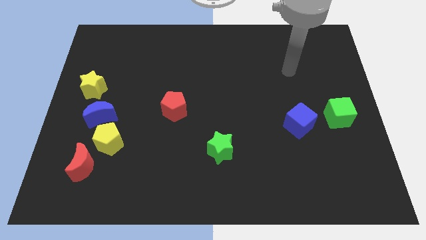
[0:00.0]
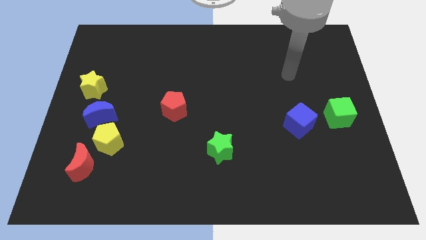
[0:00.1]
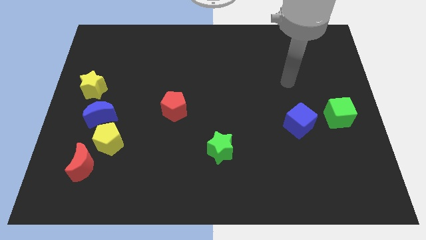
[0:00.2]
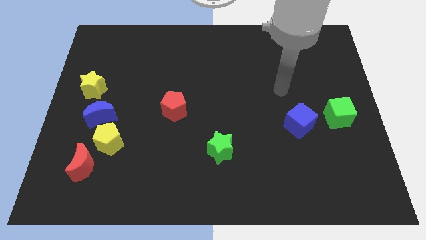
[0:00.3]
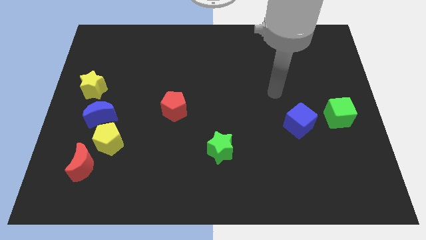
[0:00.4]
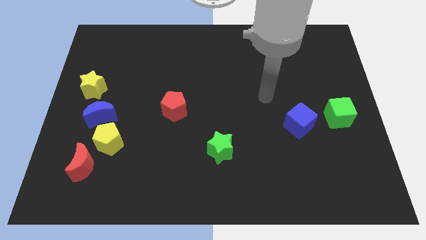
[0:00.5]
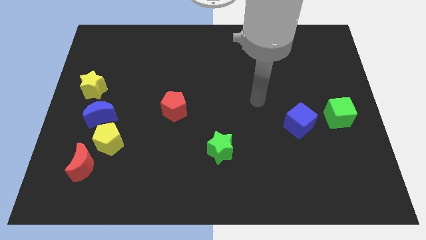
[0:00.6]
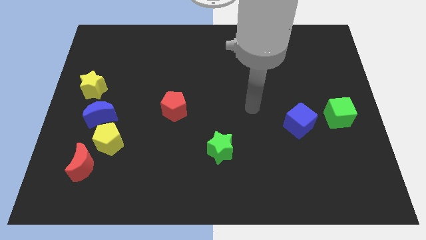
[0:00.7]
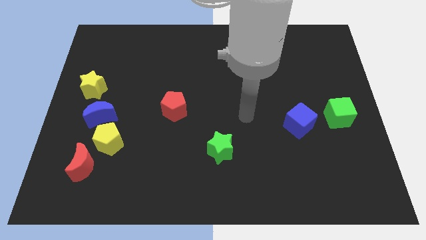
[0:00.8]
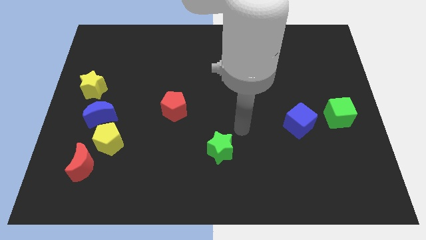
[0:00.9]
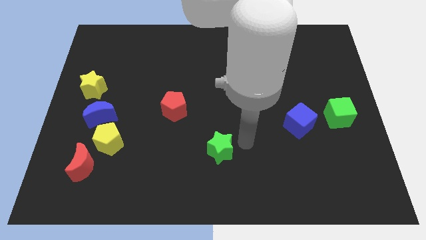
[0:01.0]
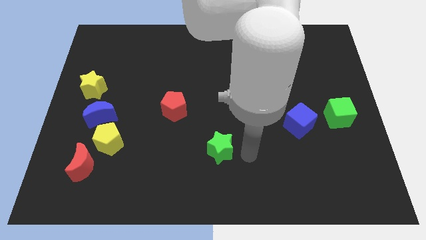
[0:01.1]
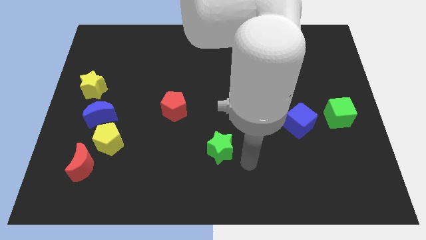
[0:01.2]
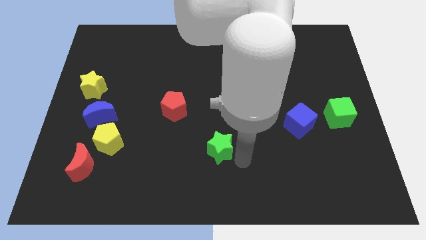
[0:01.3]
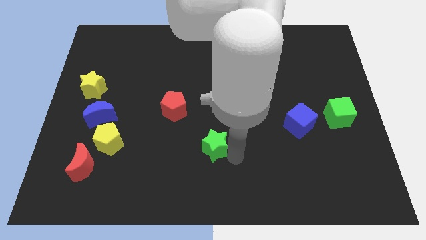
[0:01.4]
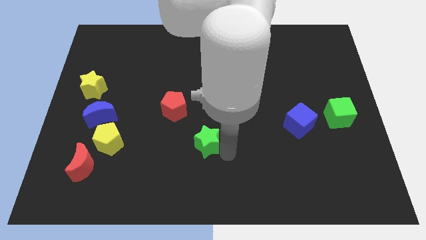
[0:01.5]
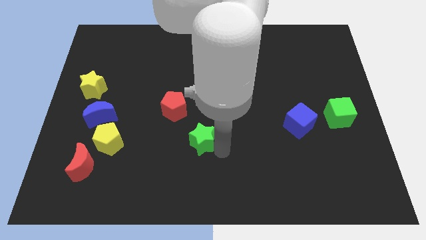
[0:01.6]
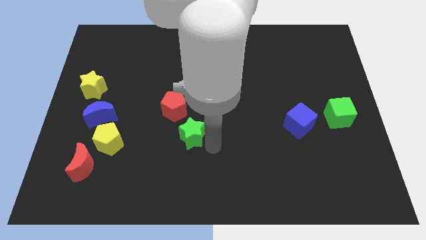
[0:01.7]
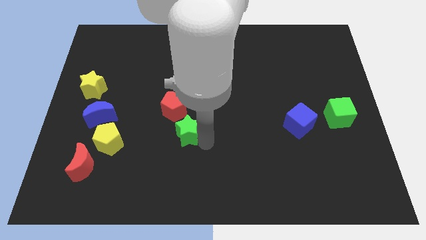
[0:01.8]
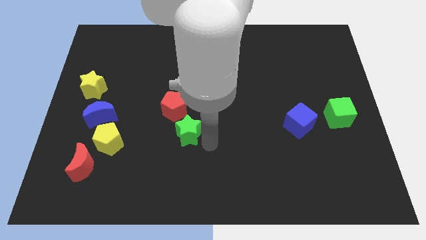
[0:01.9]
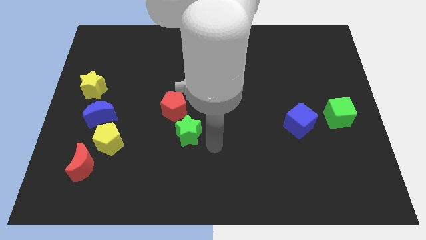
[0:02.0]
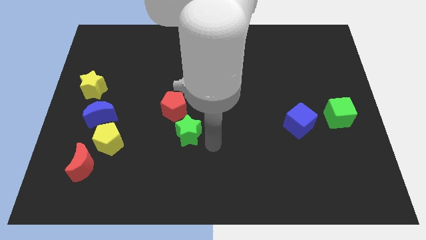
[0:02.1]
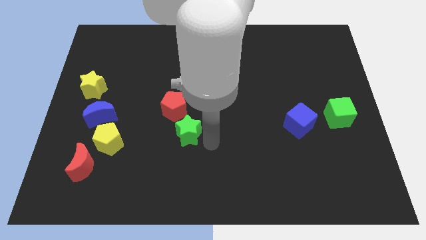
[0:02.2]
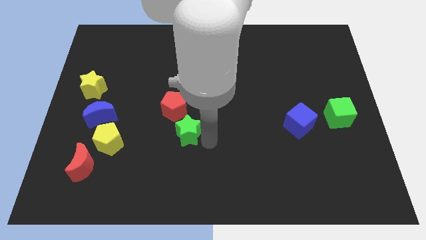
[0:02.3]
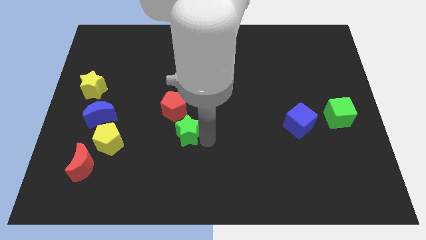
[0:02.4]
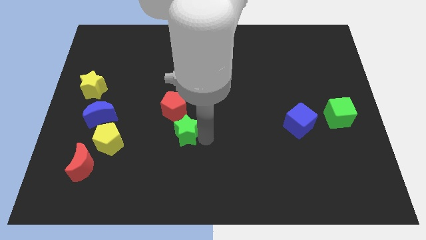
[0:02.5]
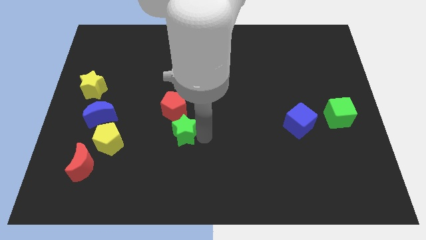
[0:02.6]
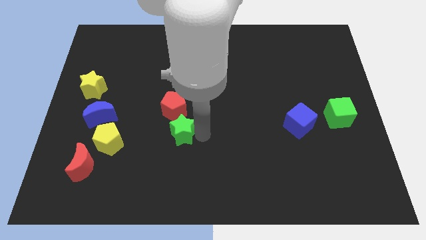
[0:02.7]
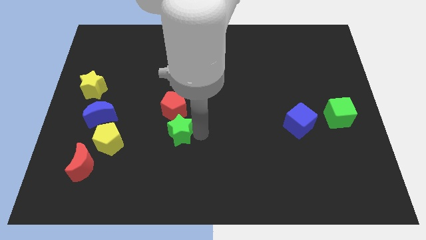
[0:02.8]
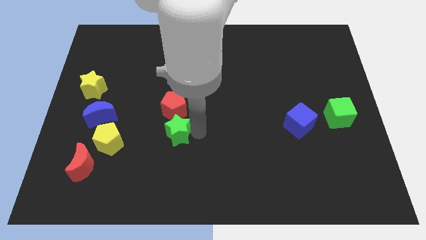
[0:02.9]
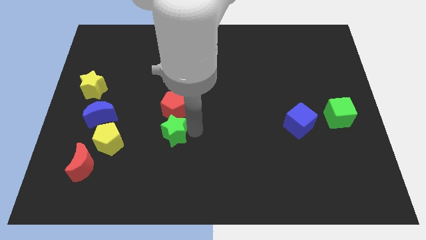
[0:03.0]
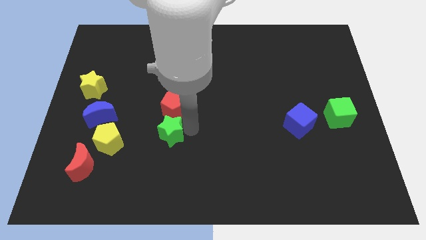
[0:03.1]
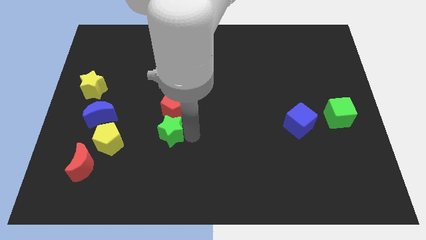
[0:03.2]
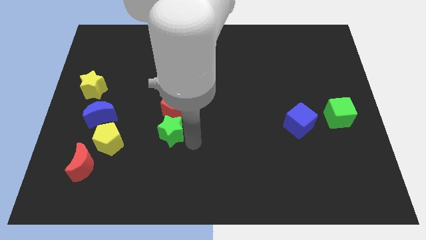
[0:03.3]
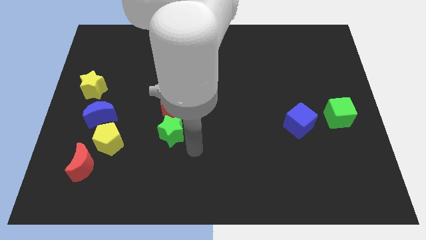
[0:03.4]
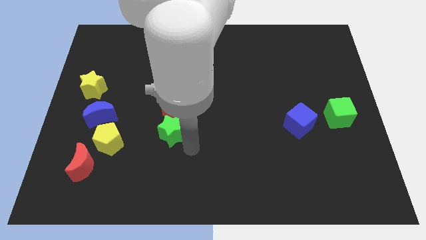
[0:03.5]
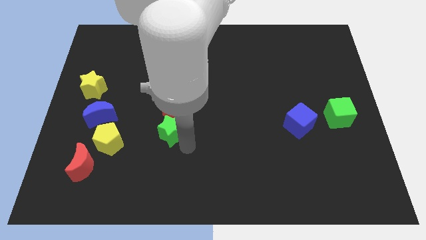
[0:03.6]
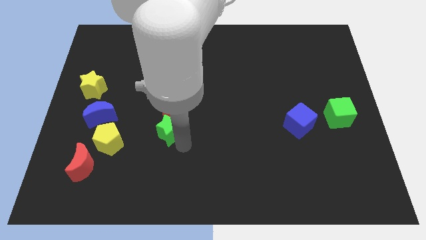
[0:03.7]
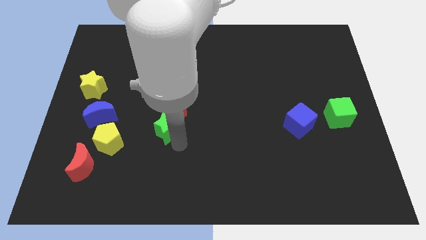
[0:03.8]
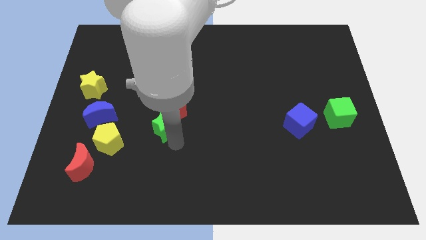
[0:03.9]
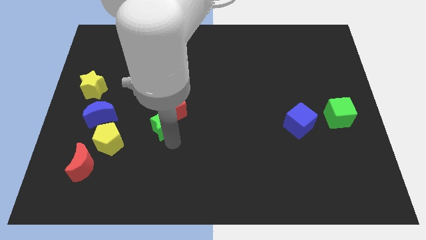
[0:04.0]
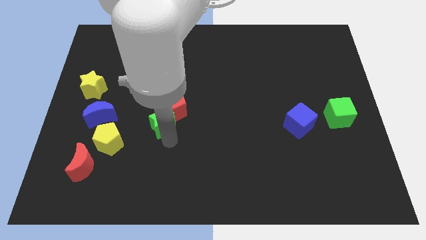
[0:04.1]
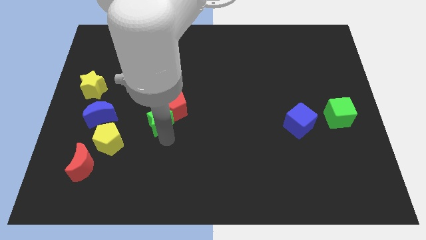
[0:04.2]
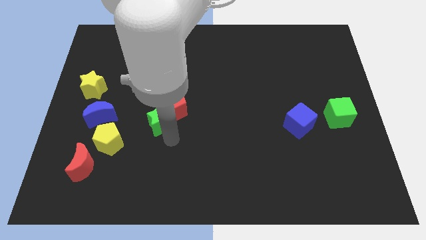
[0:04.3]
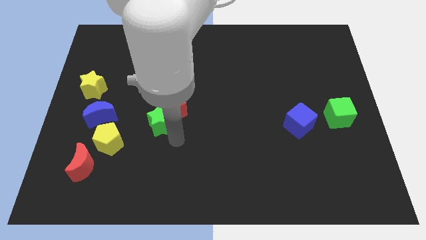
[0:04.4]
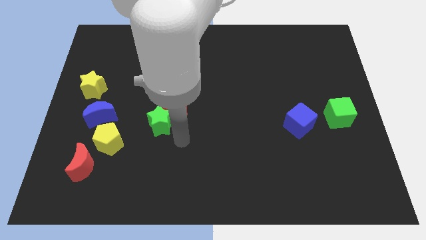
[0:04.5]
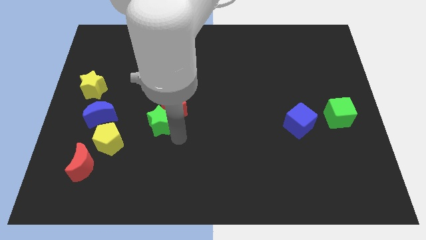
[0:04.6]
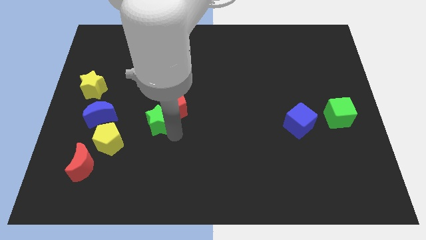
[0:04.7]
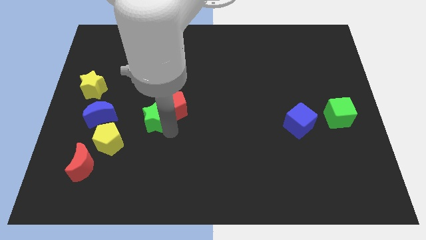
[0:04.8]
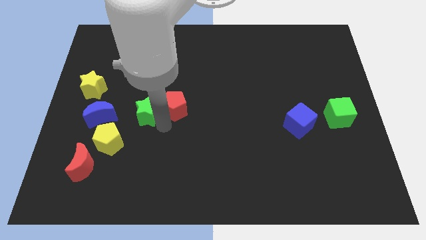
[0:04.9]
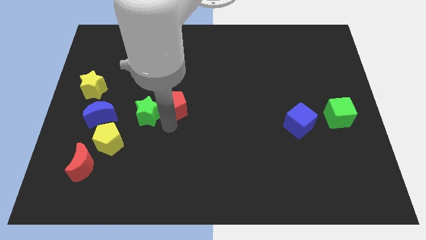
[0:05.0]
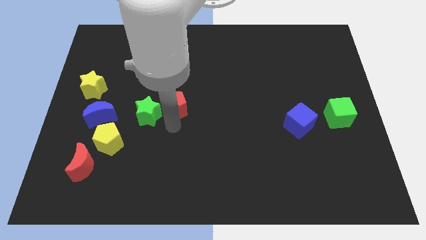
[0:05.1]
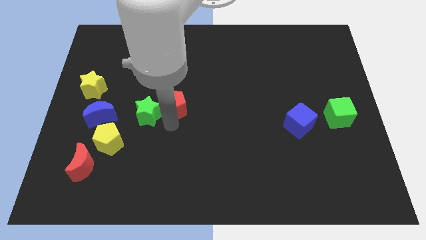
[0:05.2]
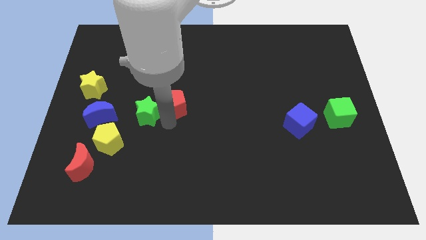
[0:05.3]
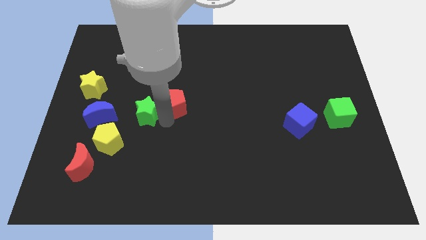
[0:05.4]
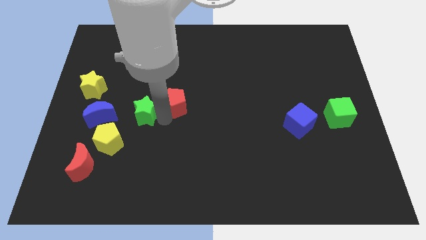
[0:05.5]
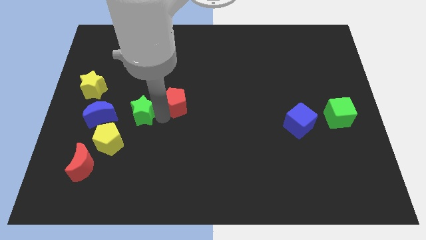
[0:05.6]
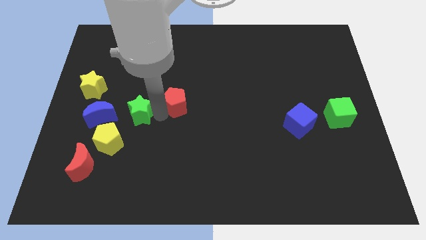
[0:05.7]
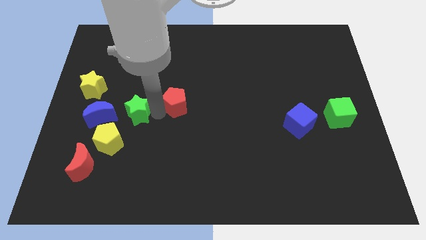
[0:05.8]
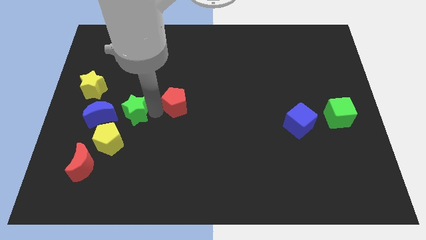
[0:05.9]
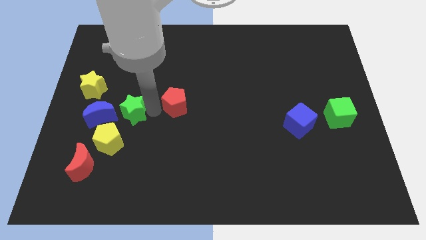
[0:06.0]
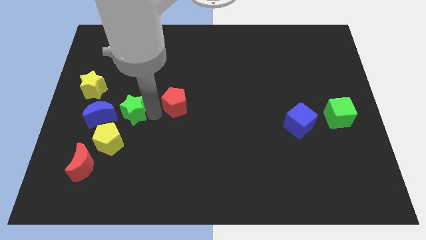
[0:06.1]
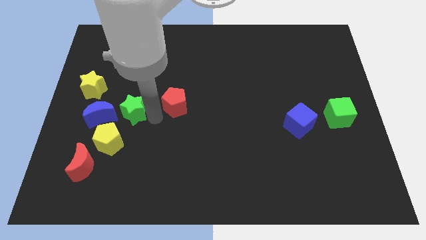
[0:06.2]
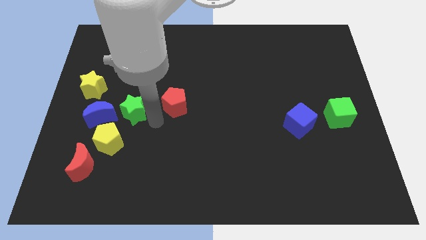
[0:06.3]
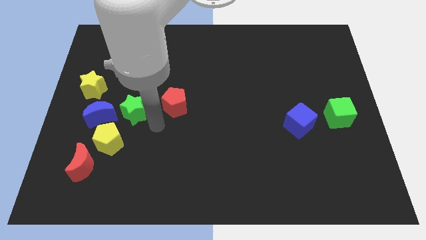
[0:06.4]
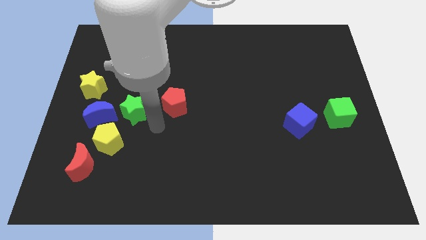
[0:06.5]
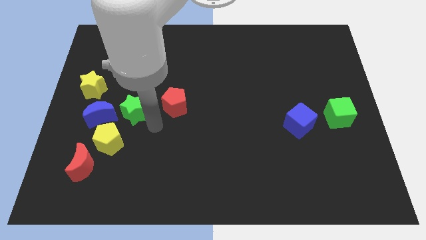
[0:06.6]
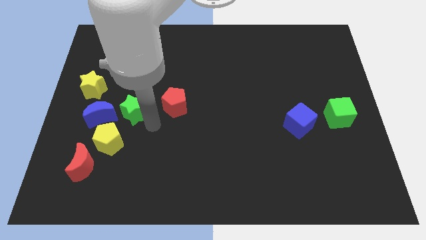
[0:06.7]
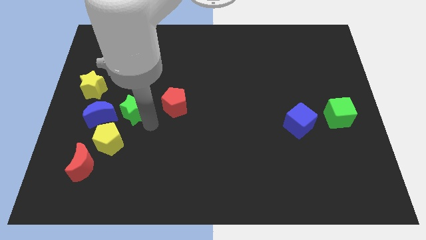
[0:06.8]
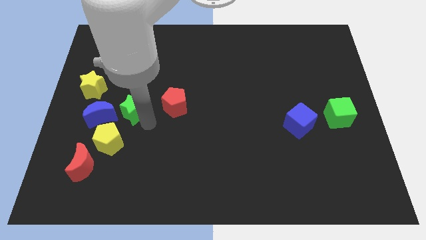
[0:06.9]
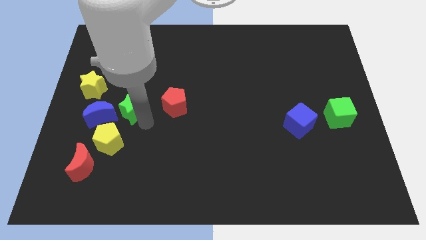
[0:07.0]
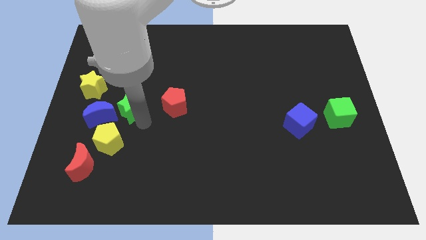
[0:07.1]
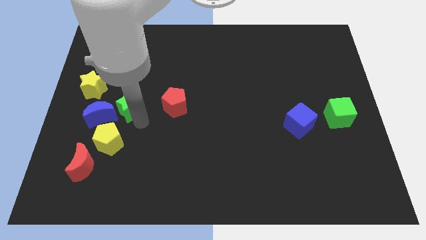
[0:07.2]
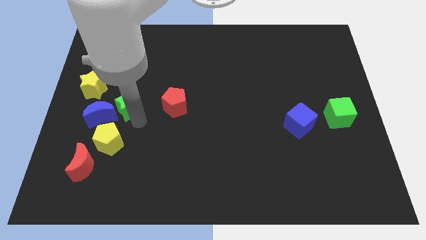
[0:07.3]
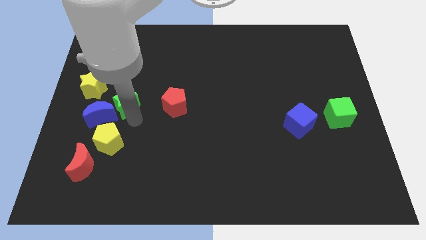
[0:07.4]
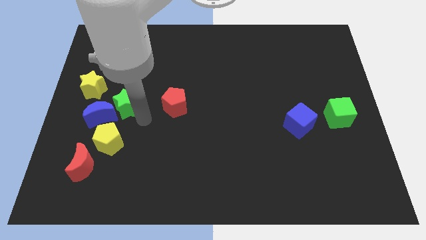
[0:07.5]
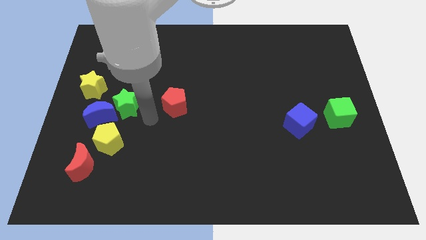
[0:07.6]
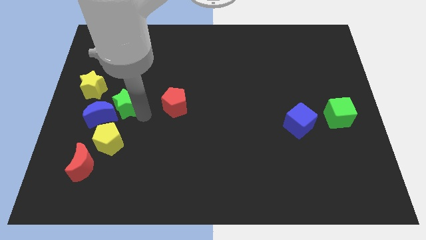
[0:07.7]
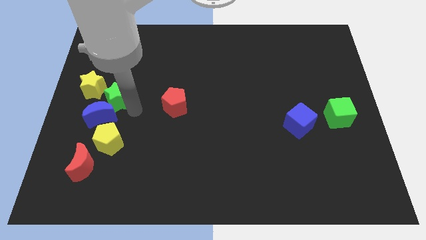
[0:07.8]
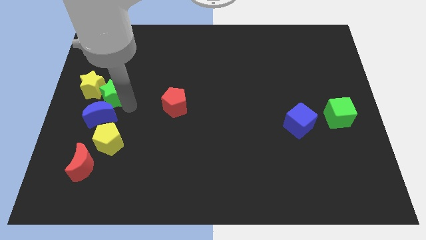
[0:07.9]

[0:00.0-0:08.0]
put the green star to the yellow star
